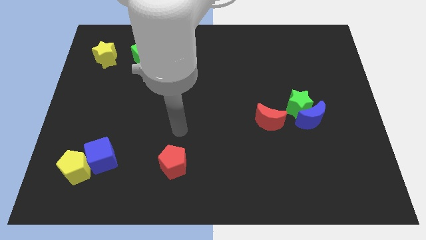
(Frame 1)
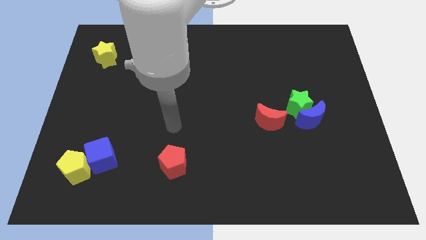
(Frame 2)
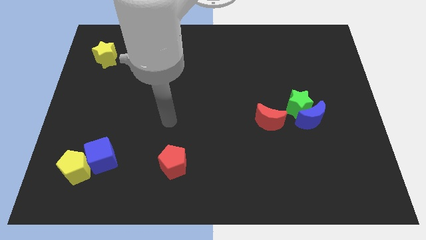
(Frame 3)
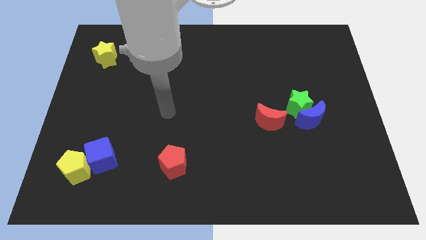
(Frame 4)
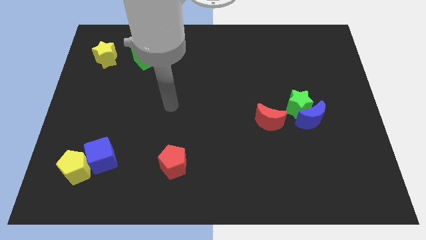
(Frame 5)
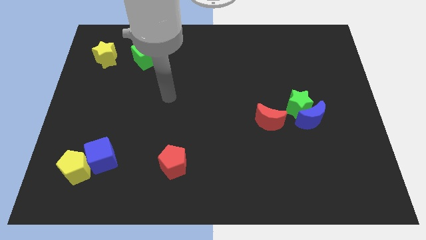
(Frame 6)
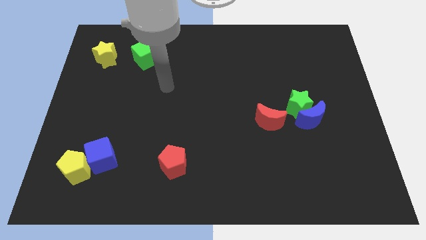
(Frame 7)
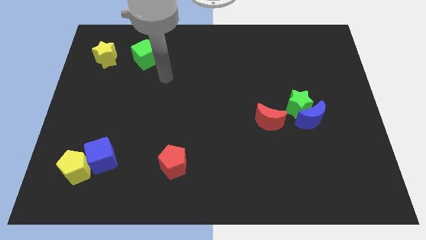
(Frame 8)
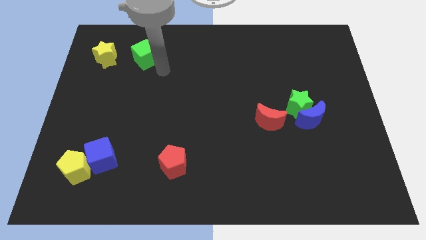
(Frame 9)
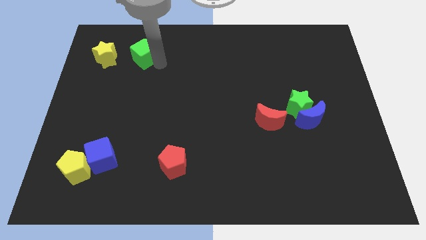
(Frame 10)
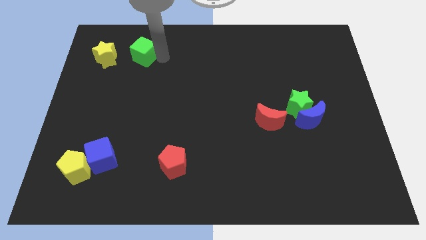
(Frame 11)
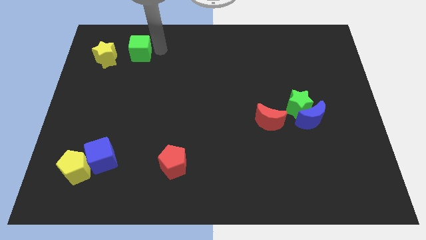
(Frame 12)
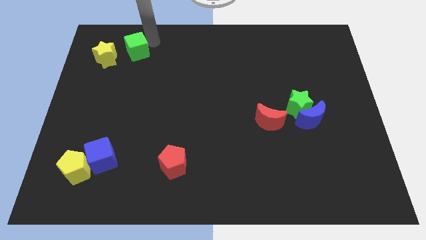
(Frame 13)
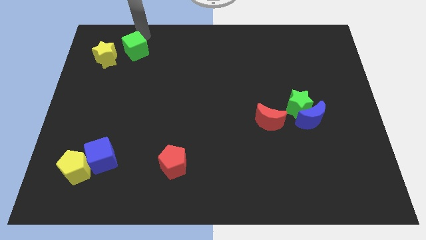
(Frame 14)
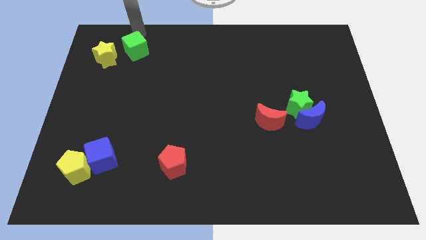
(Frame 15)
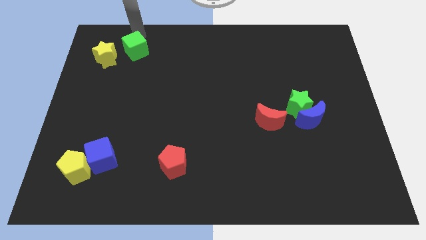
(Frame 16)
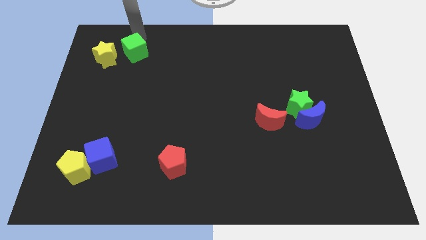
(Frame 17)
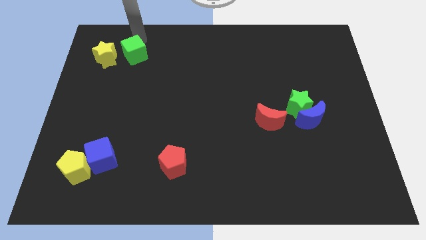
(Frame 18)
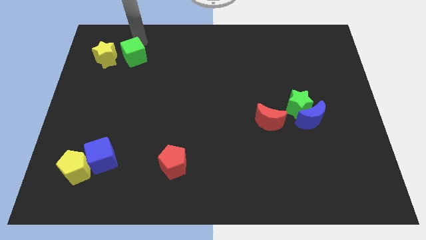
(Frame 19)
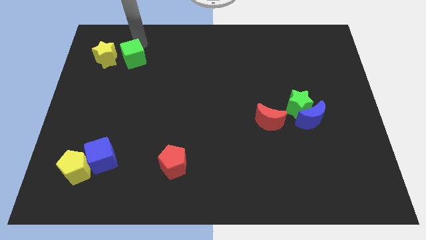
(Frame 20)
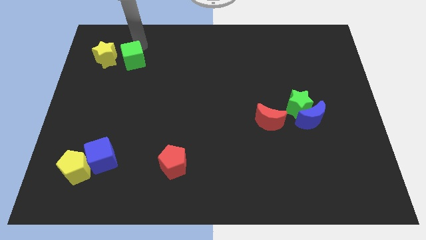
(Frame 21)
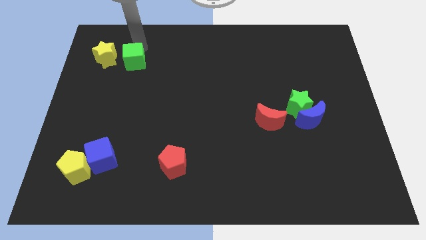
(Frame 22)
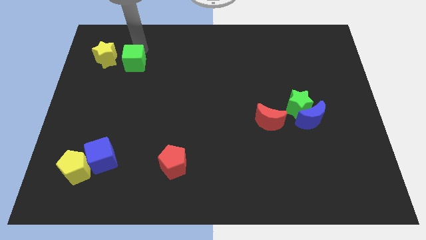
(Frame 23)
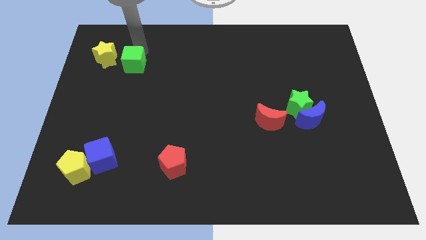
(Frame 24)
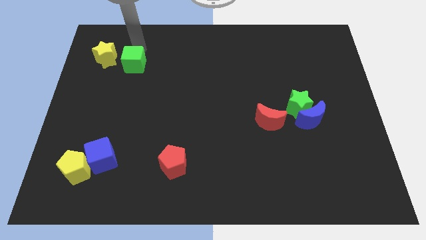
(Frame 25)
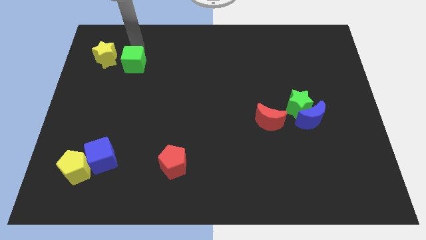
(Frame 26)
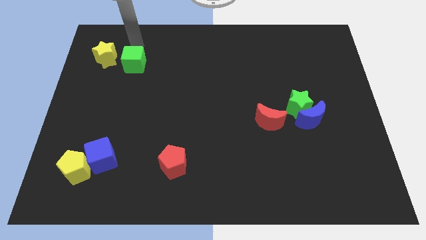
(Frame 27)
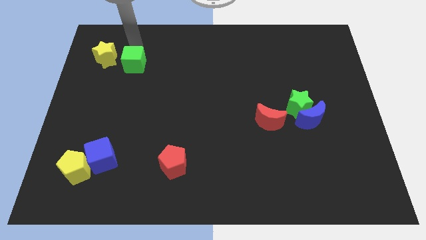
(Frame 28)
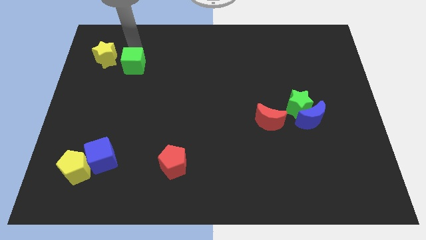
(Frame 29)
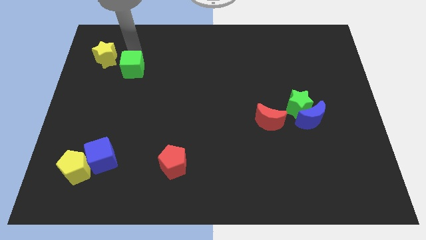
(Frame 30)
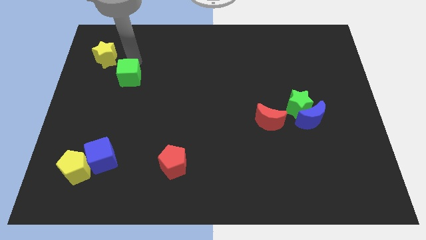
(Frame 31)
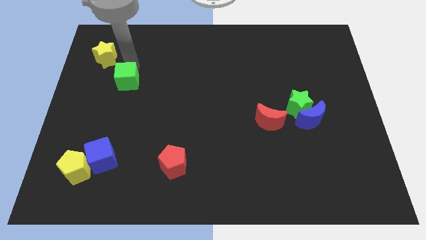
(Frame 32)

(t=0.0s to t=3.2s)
push the green cube downwards a little bit

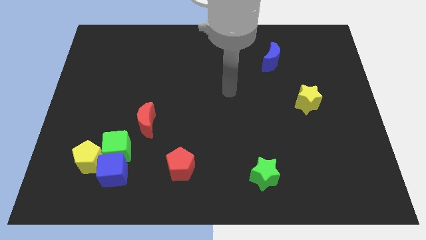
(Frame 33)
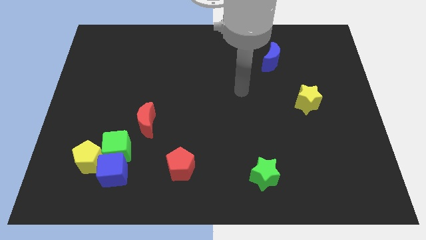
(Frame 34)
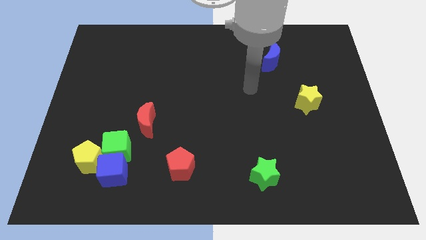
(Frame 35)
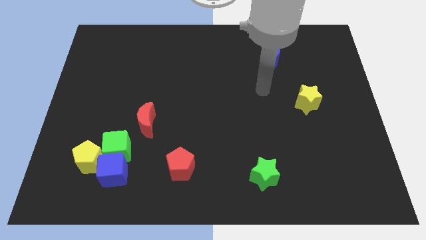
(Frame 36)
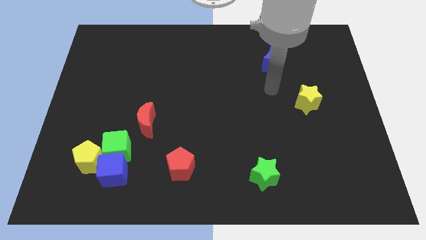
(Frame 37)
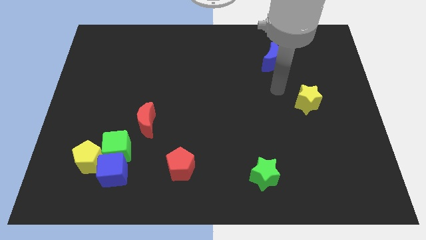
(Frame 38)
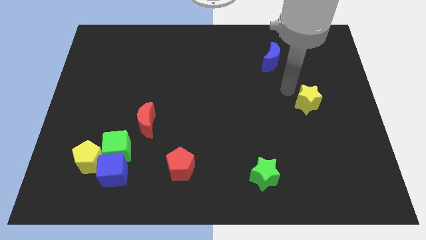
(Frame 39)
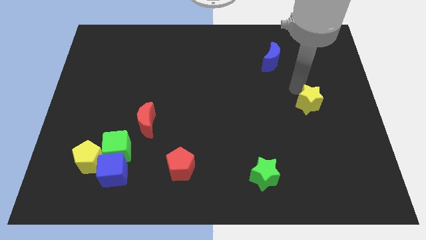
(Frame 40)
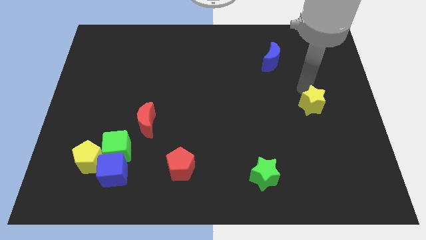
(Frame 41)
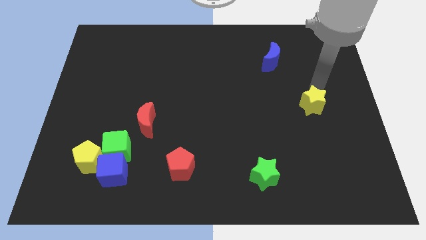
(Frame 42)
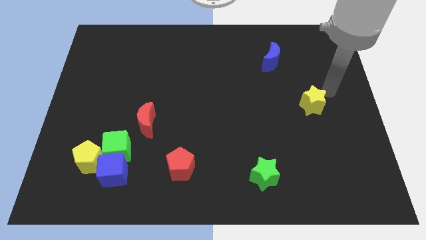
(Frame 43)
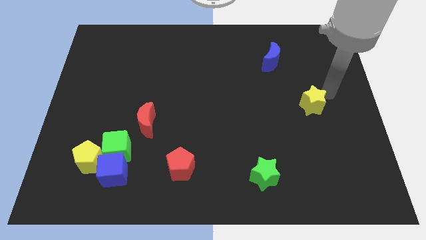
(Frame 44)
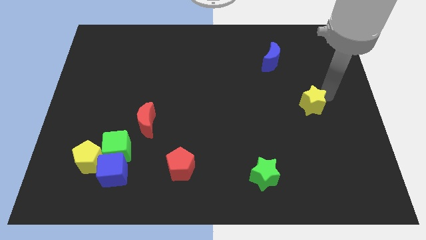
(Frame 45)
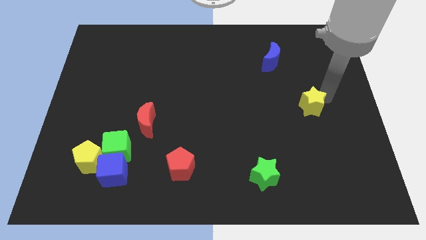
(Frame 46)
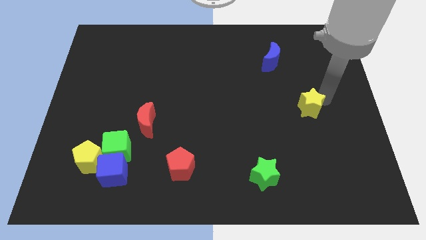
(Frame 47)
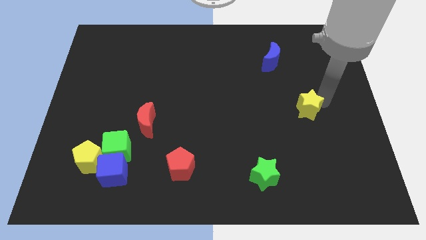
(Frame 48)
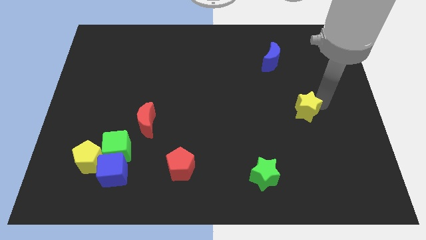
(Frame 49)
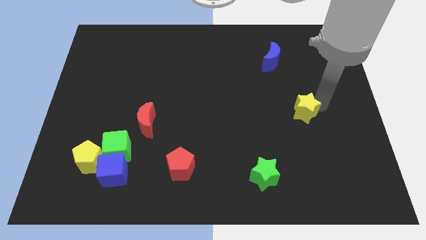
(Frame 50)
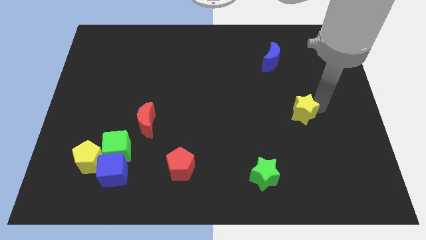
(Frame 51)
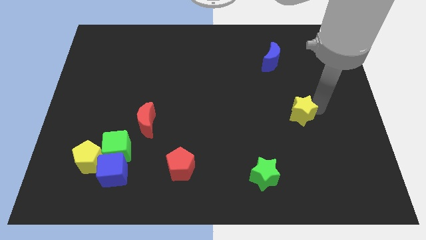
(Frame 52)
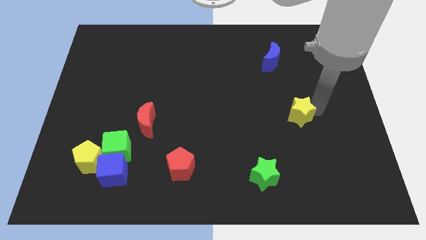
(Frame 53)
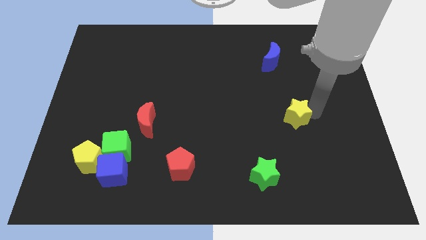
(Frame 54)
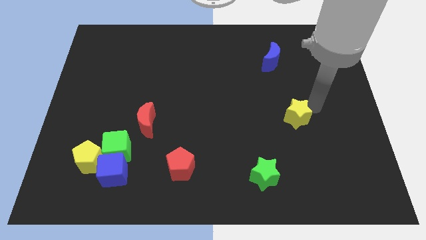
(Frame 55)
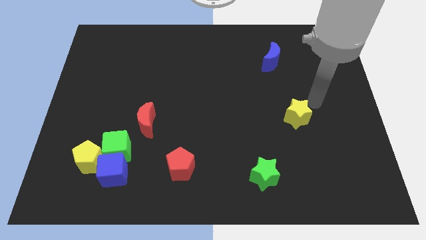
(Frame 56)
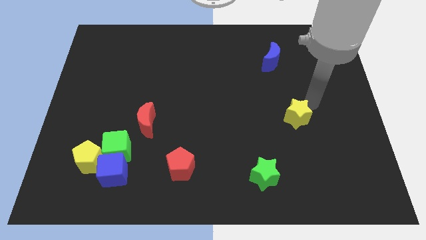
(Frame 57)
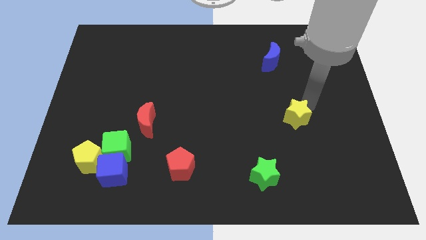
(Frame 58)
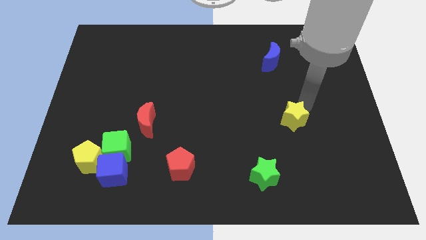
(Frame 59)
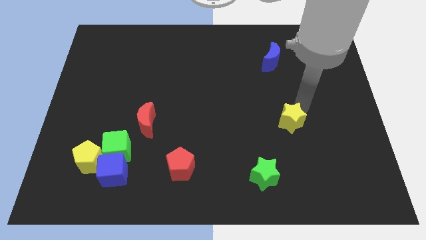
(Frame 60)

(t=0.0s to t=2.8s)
push the yellow star downwards and left diagonally somewhat

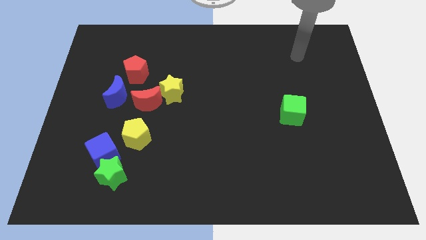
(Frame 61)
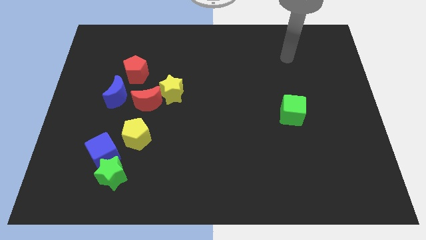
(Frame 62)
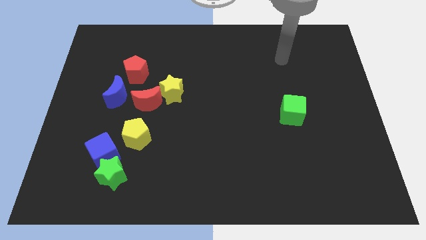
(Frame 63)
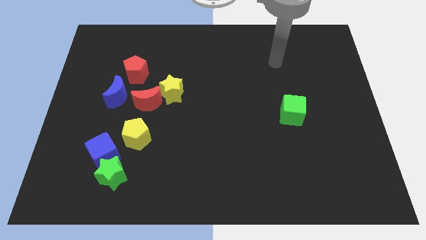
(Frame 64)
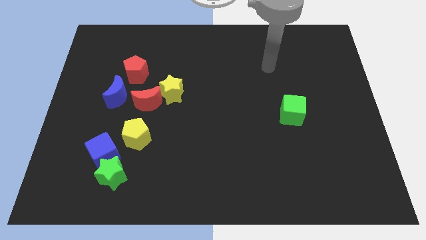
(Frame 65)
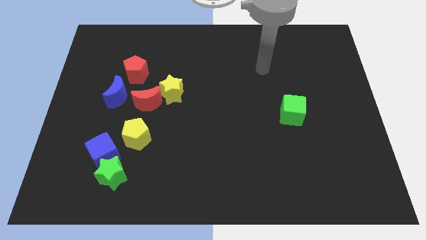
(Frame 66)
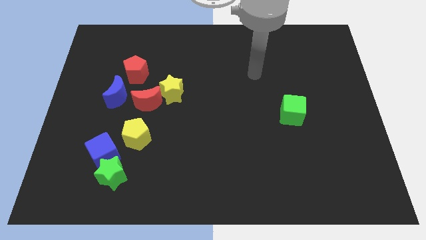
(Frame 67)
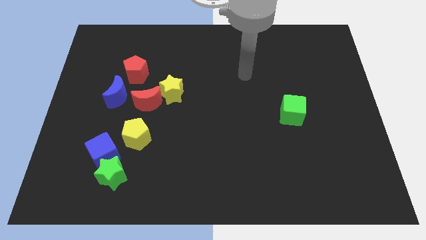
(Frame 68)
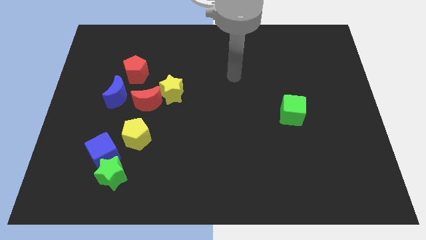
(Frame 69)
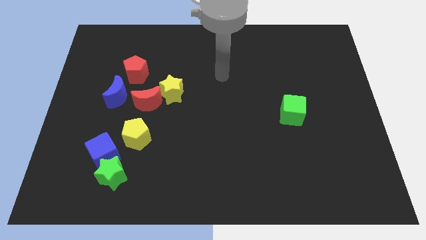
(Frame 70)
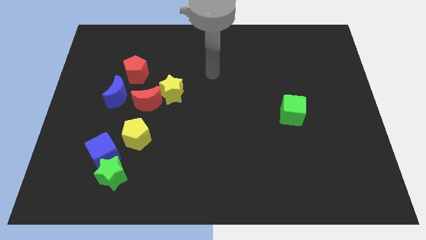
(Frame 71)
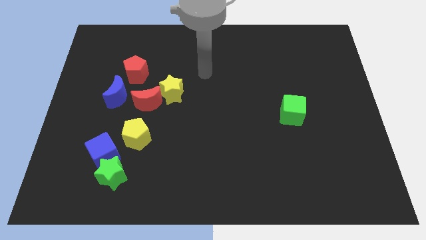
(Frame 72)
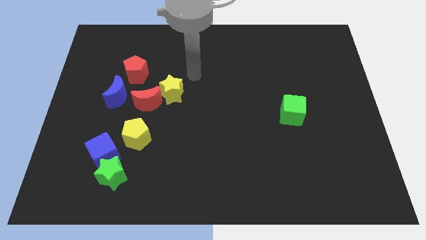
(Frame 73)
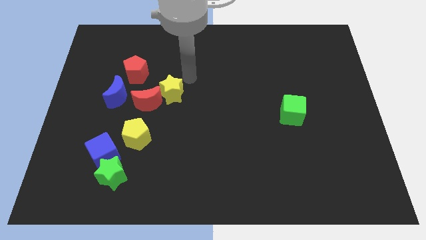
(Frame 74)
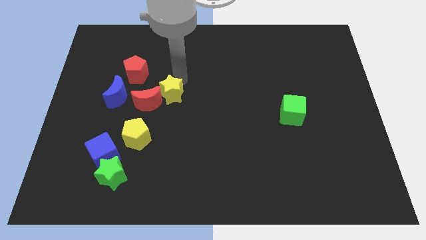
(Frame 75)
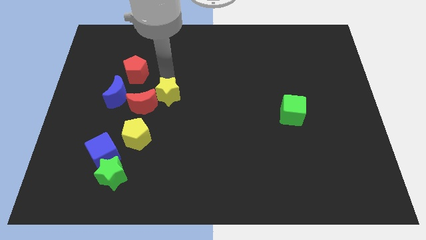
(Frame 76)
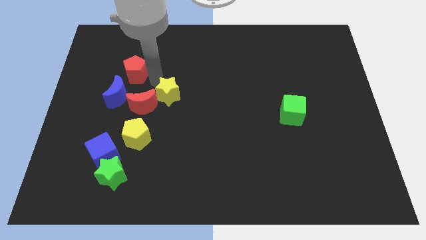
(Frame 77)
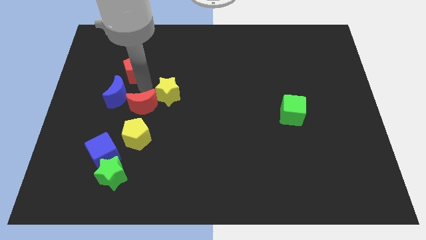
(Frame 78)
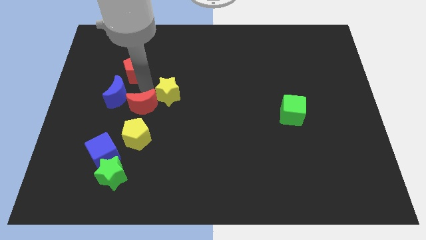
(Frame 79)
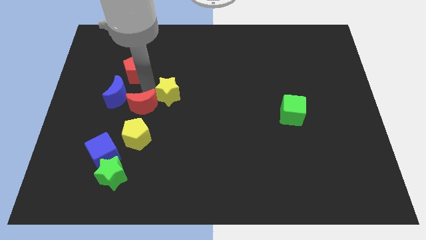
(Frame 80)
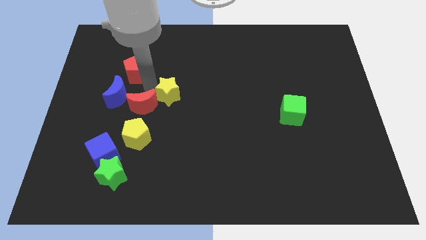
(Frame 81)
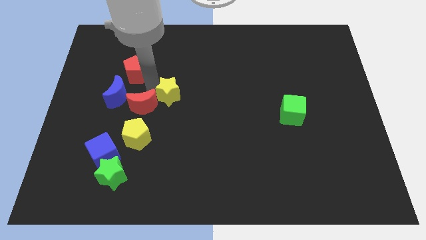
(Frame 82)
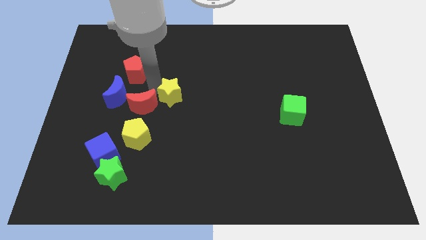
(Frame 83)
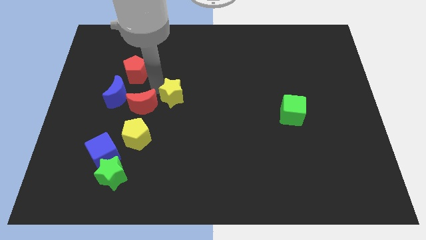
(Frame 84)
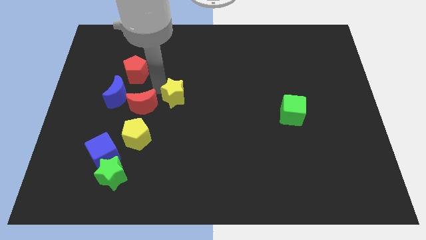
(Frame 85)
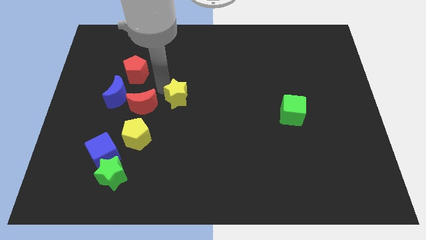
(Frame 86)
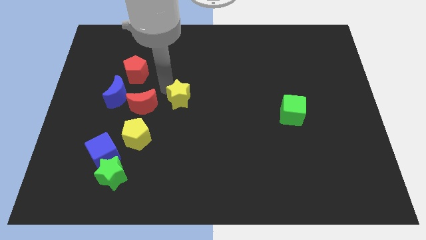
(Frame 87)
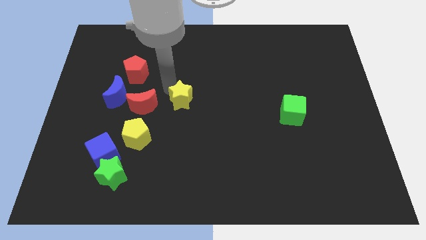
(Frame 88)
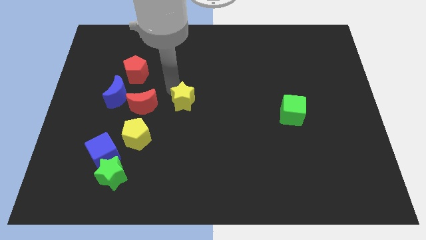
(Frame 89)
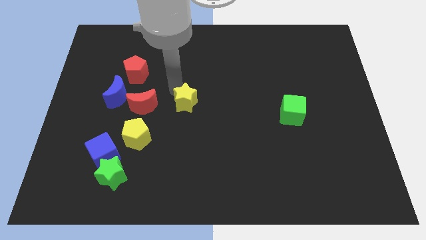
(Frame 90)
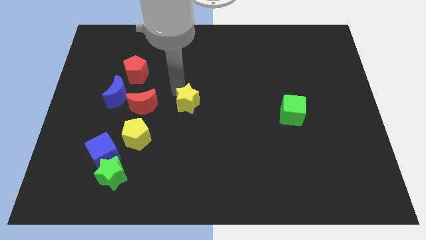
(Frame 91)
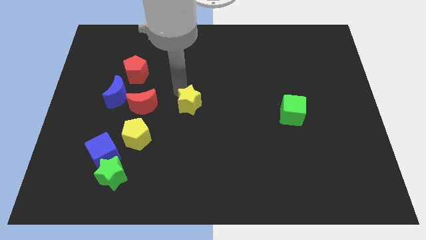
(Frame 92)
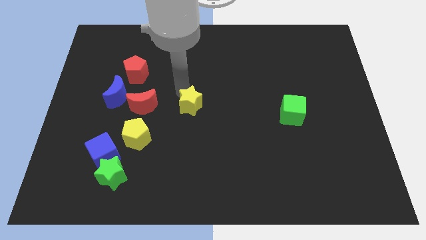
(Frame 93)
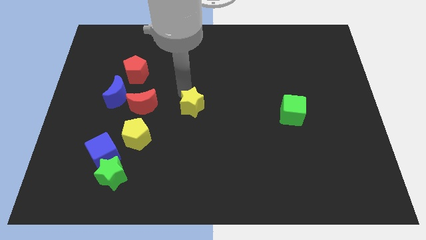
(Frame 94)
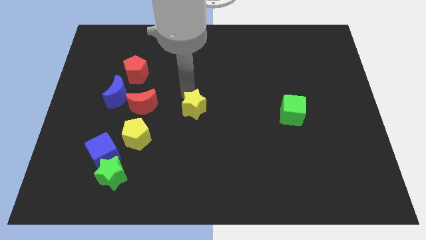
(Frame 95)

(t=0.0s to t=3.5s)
slide the yellow star slightly downwards and to the right
